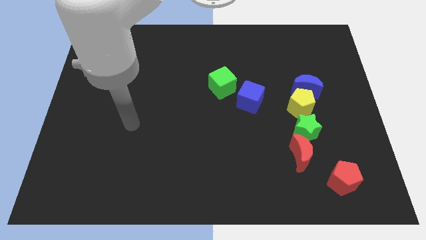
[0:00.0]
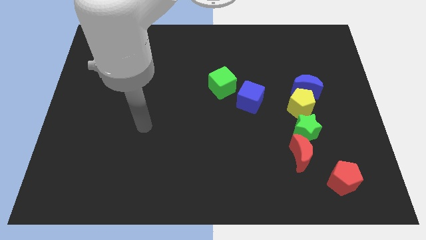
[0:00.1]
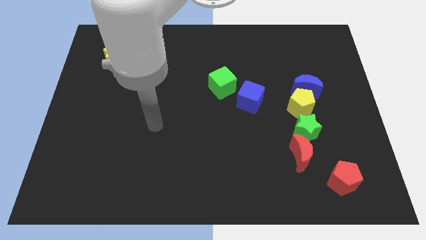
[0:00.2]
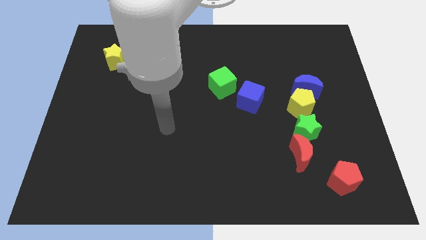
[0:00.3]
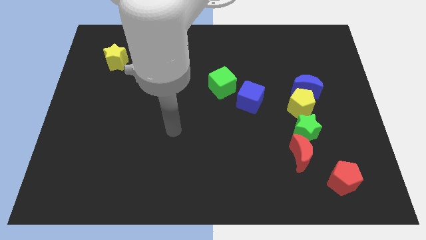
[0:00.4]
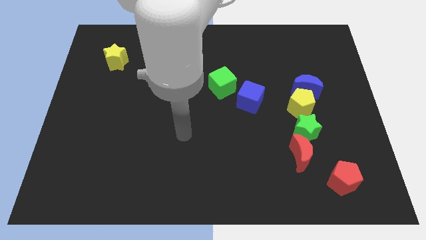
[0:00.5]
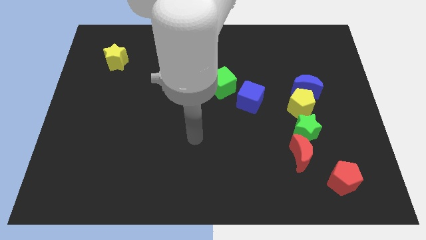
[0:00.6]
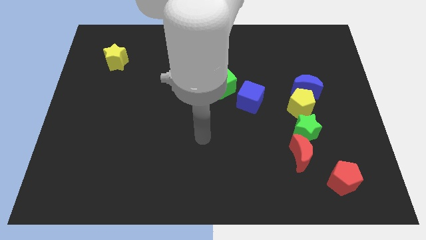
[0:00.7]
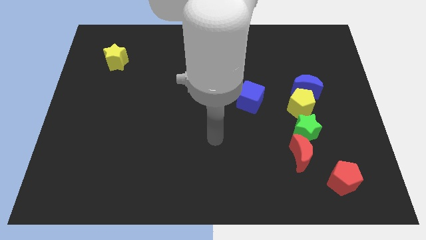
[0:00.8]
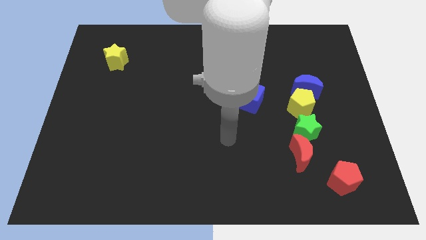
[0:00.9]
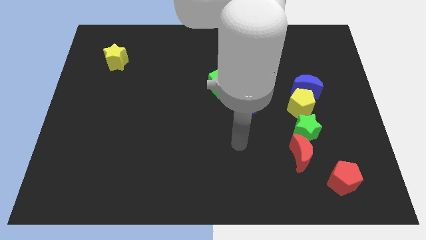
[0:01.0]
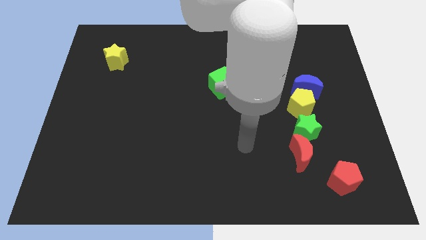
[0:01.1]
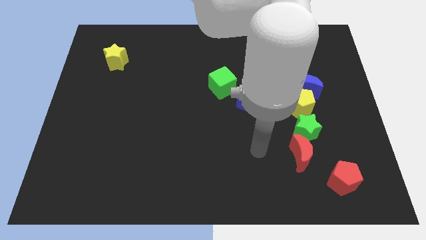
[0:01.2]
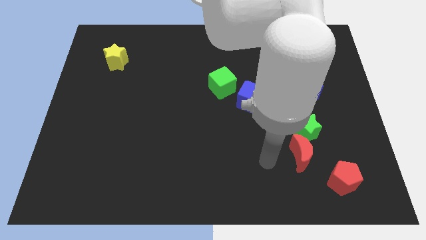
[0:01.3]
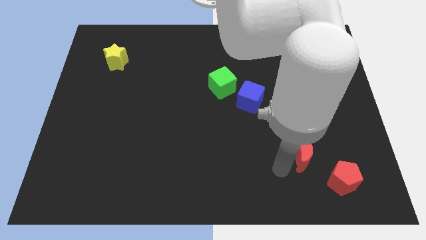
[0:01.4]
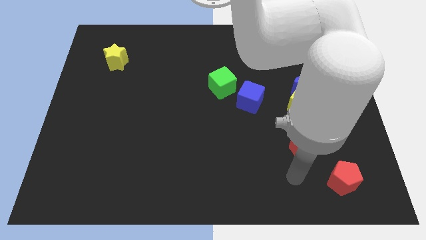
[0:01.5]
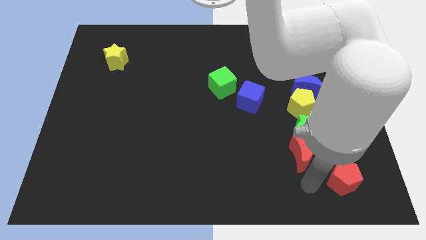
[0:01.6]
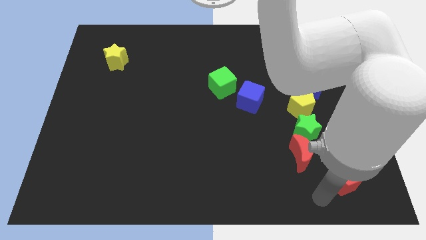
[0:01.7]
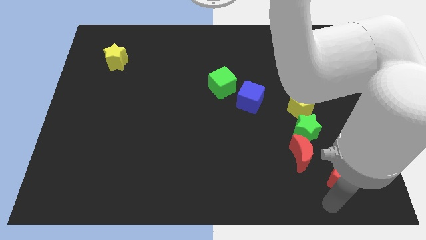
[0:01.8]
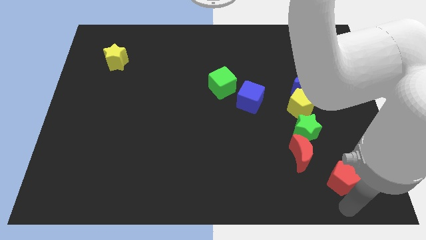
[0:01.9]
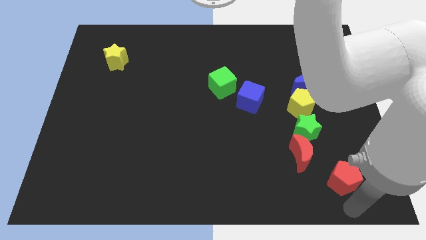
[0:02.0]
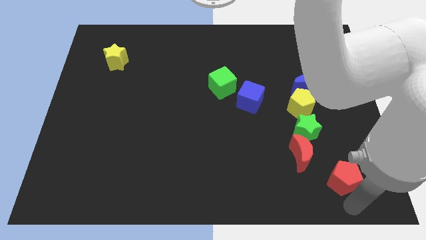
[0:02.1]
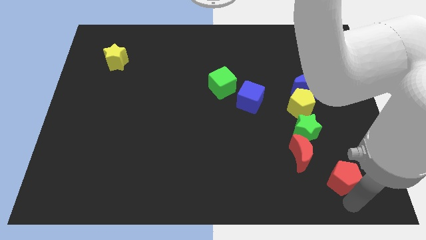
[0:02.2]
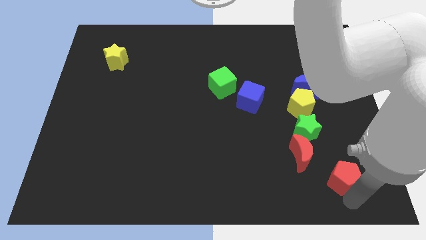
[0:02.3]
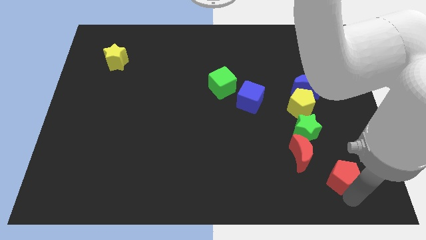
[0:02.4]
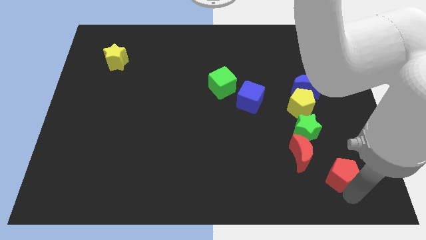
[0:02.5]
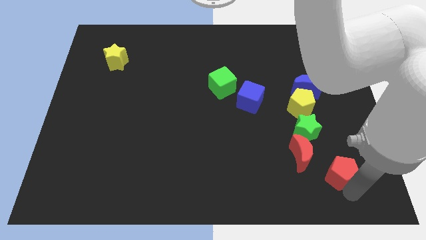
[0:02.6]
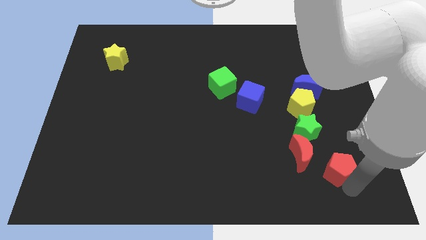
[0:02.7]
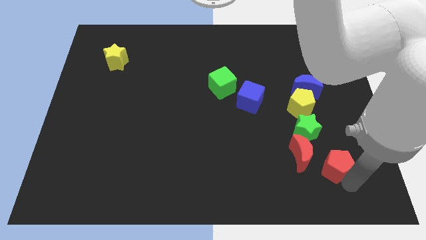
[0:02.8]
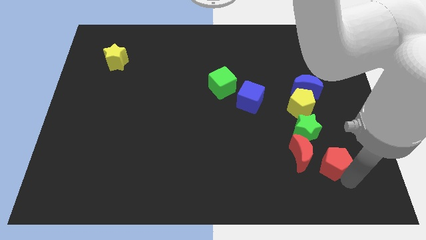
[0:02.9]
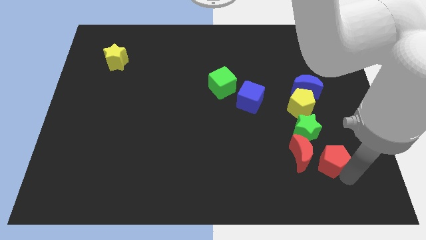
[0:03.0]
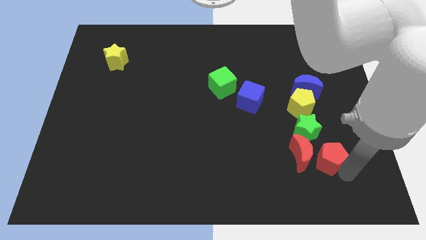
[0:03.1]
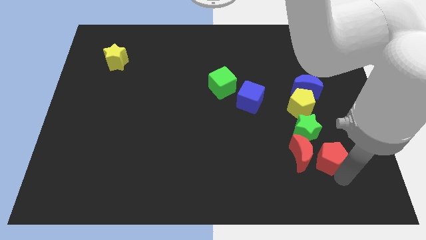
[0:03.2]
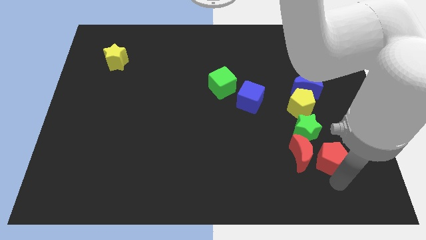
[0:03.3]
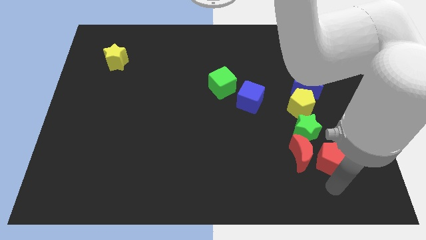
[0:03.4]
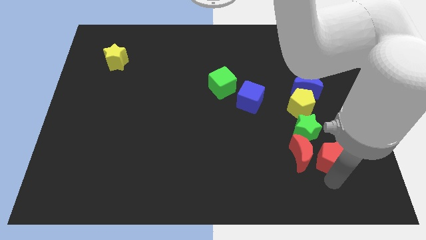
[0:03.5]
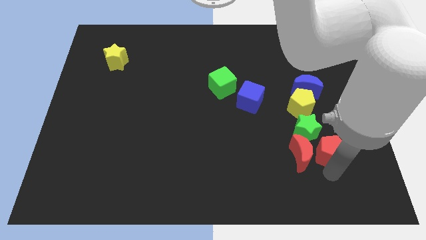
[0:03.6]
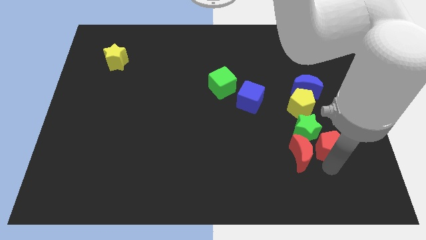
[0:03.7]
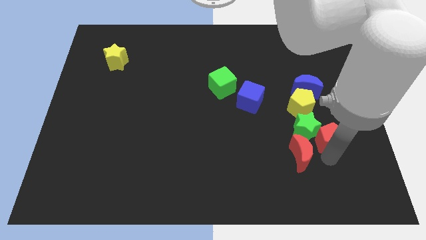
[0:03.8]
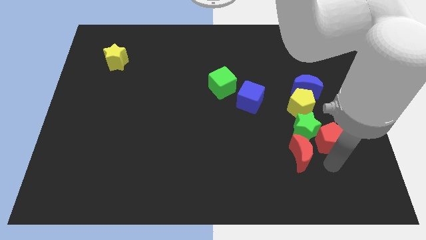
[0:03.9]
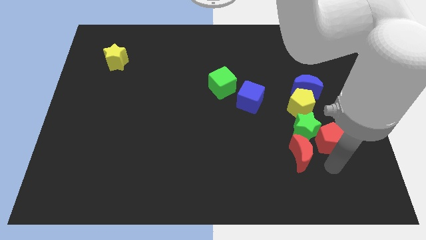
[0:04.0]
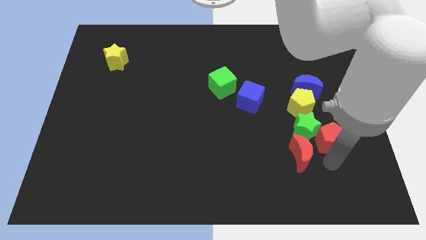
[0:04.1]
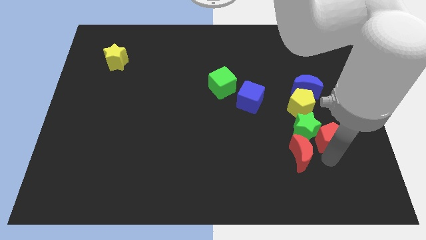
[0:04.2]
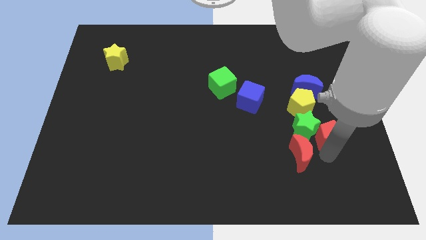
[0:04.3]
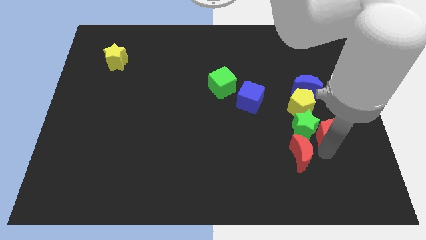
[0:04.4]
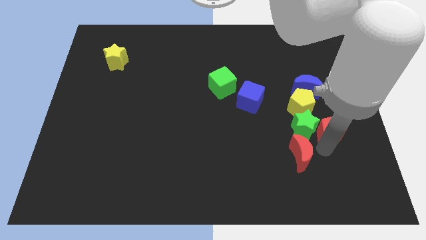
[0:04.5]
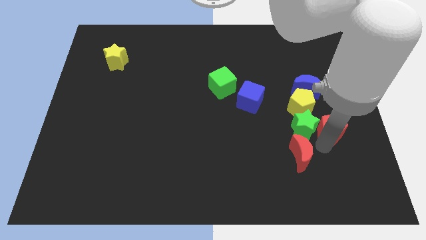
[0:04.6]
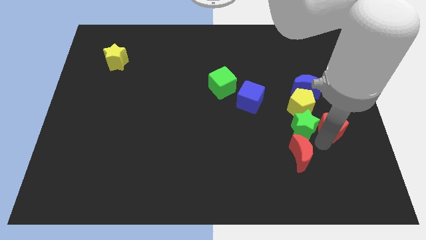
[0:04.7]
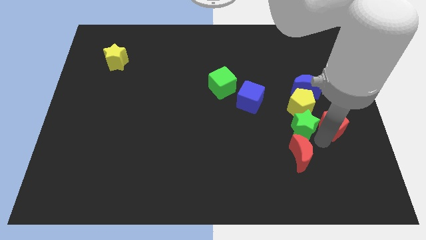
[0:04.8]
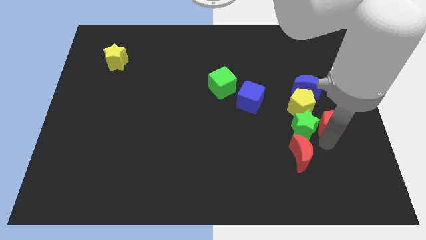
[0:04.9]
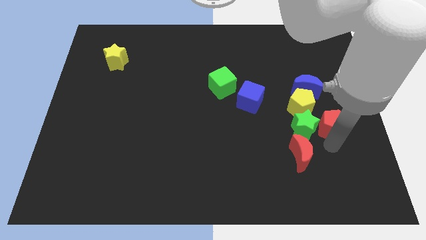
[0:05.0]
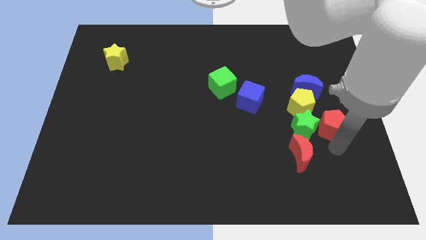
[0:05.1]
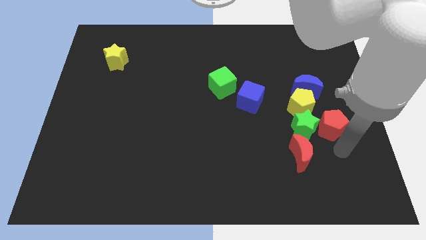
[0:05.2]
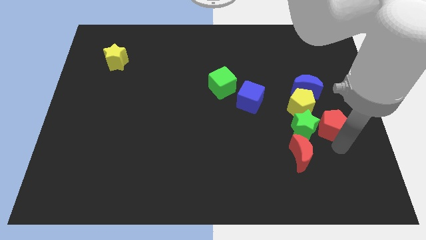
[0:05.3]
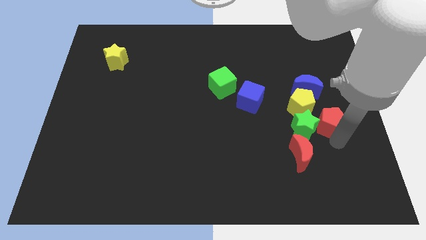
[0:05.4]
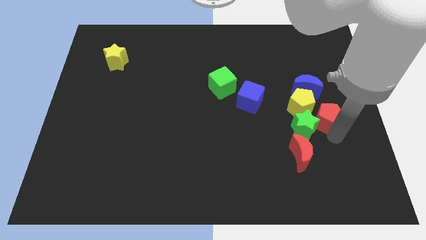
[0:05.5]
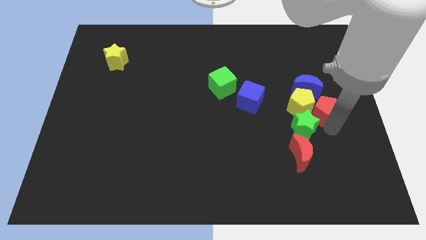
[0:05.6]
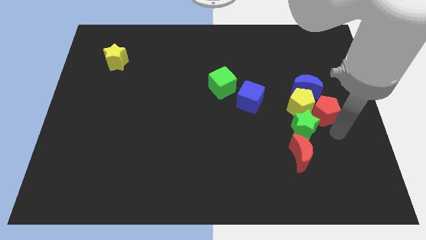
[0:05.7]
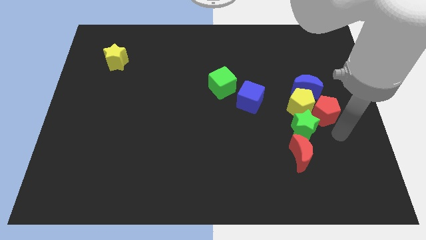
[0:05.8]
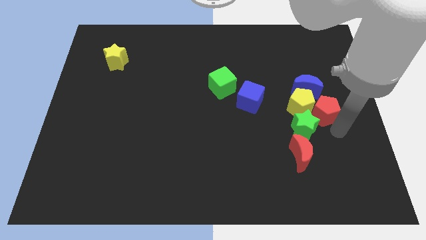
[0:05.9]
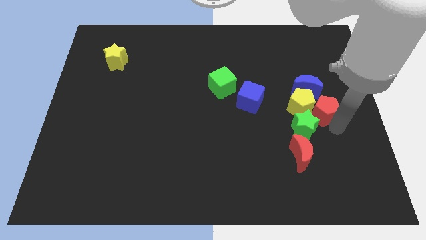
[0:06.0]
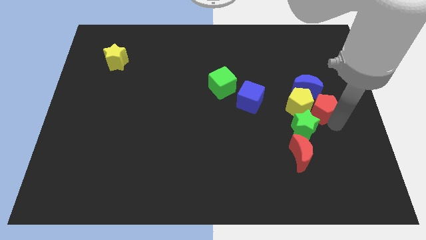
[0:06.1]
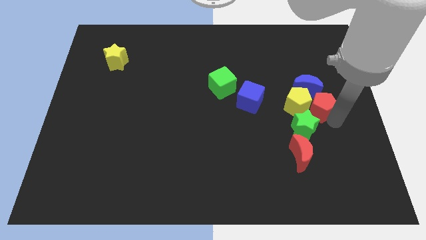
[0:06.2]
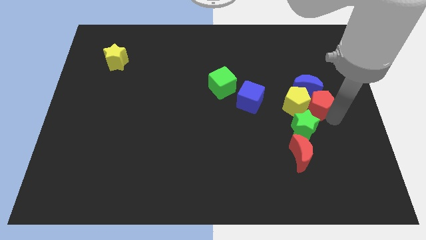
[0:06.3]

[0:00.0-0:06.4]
put the red pentagon to the blue moon

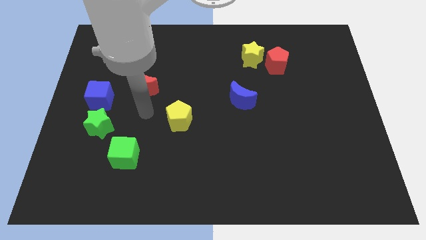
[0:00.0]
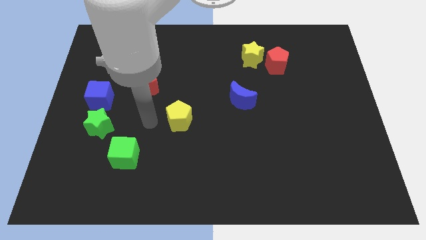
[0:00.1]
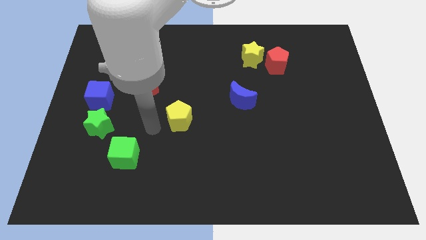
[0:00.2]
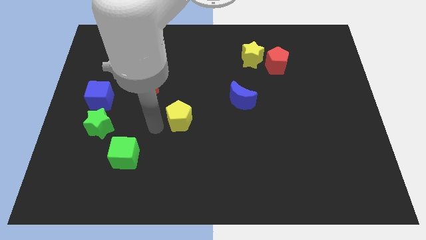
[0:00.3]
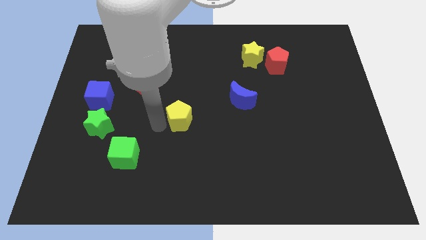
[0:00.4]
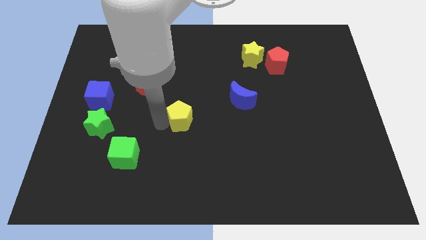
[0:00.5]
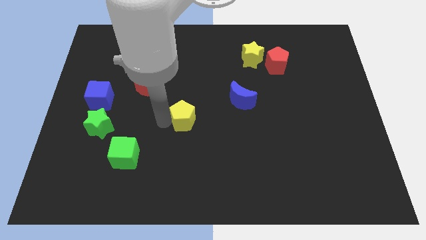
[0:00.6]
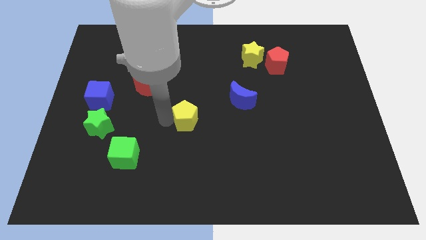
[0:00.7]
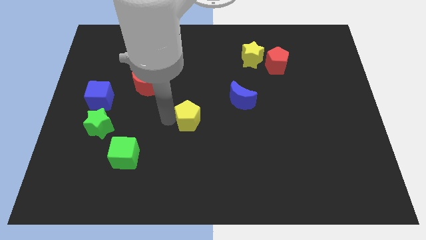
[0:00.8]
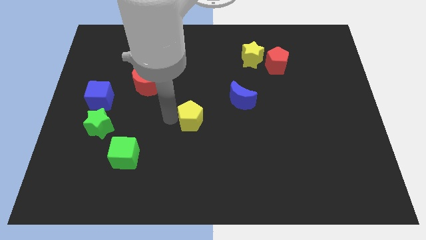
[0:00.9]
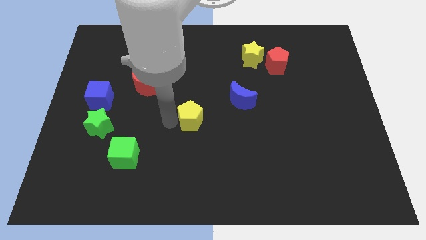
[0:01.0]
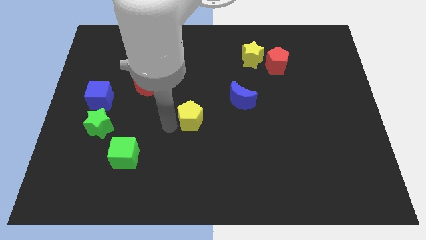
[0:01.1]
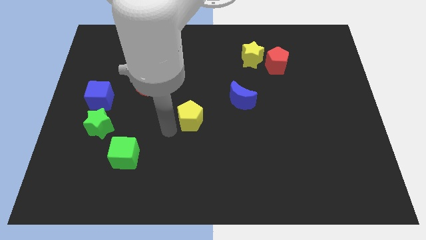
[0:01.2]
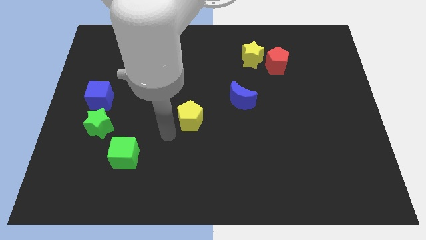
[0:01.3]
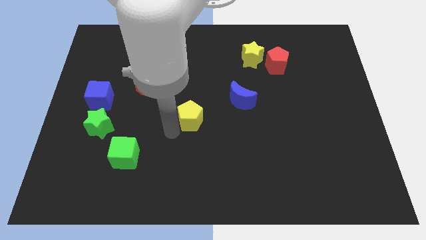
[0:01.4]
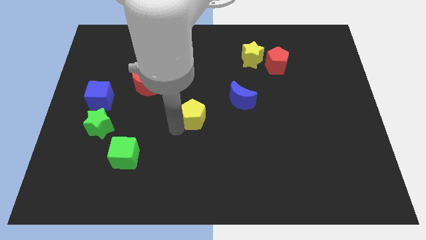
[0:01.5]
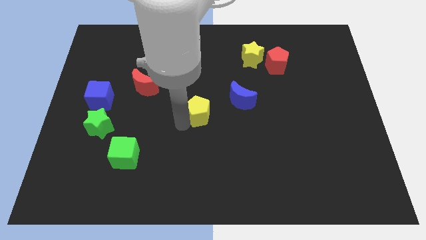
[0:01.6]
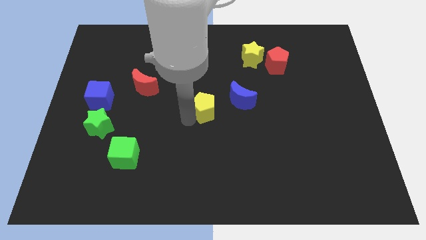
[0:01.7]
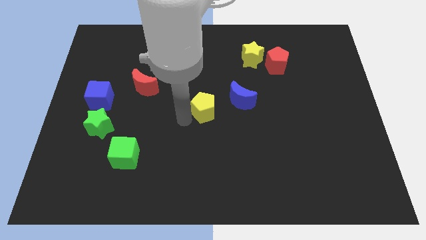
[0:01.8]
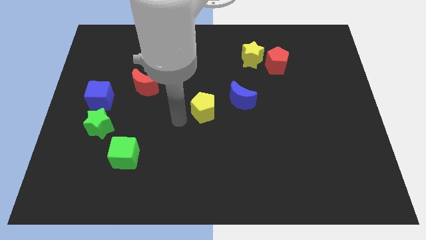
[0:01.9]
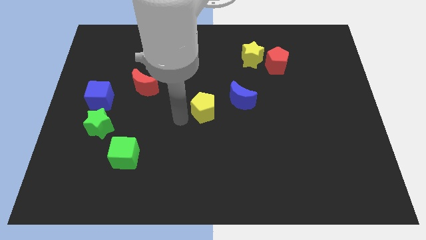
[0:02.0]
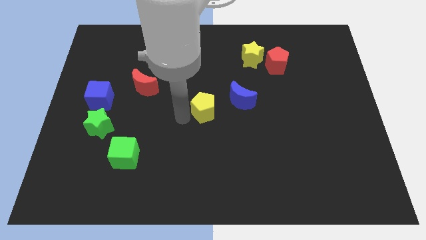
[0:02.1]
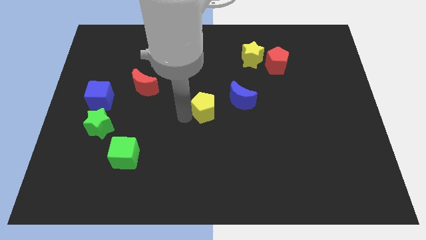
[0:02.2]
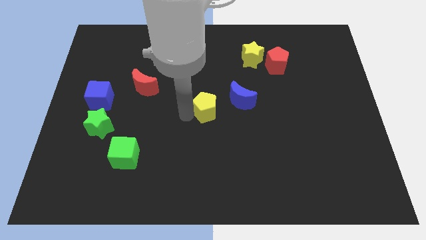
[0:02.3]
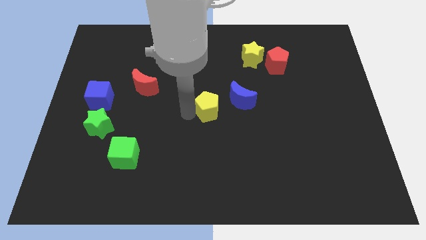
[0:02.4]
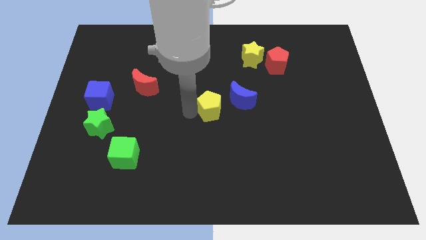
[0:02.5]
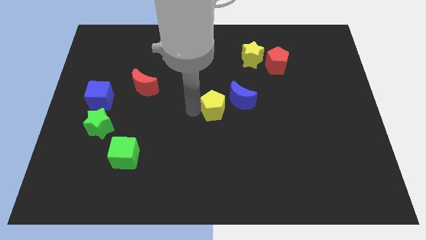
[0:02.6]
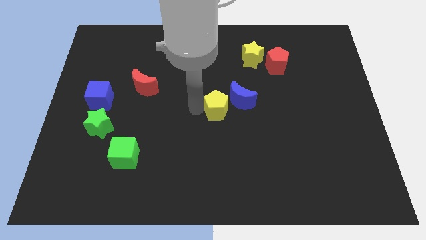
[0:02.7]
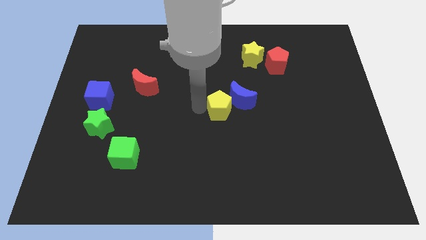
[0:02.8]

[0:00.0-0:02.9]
push the yellow pentagon next to the blue moon
